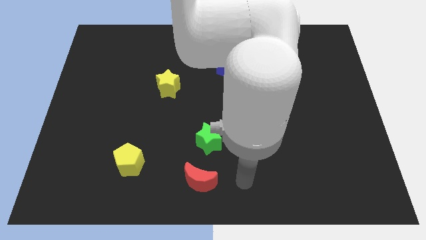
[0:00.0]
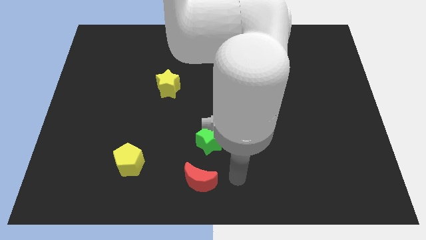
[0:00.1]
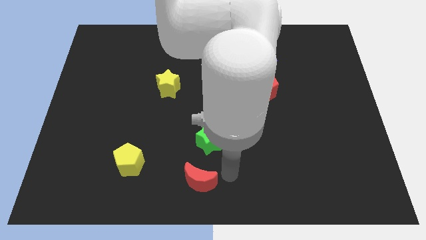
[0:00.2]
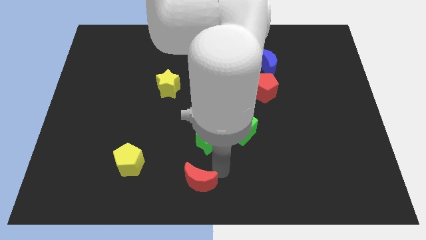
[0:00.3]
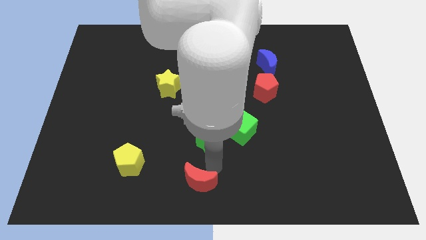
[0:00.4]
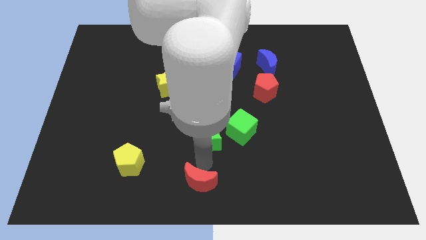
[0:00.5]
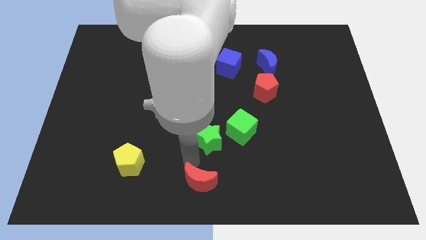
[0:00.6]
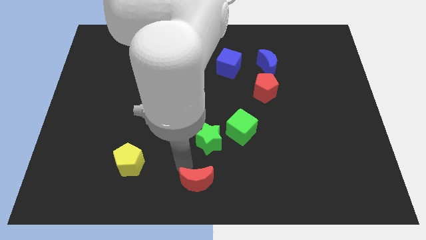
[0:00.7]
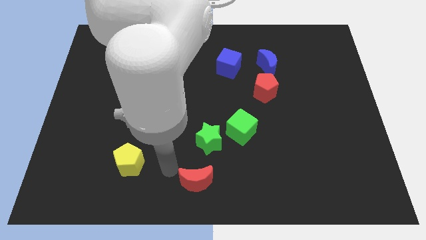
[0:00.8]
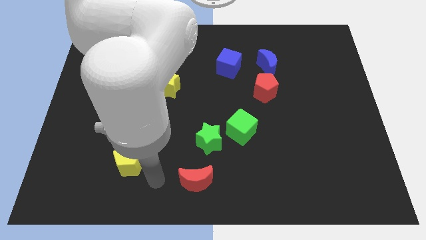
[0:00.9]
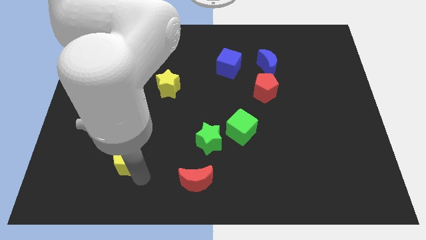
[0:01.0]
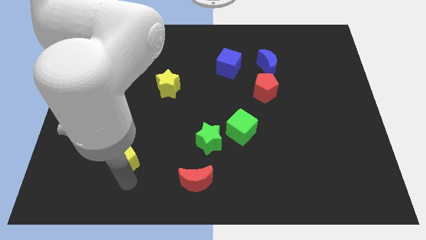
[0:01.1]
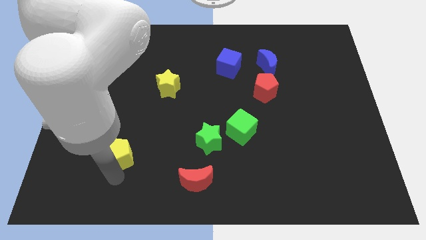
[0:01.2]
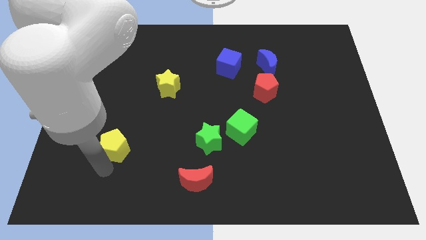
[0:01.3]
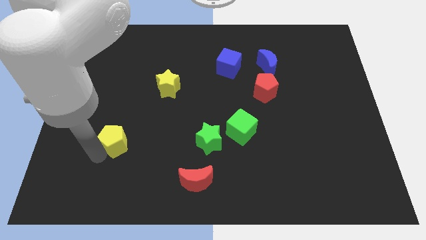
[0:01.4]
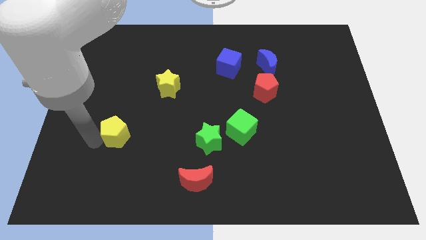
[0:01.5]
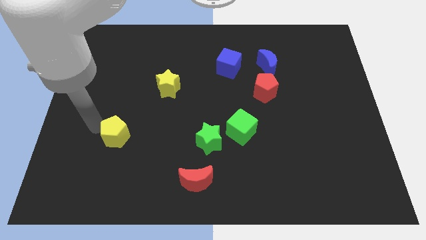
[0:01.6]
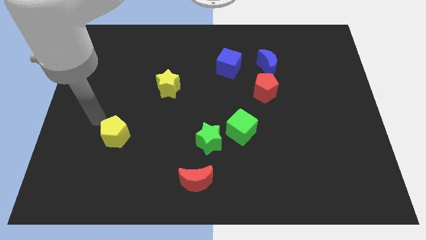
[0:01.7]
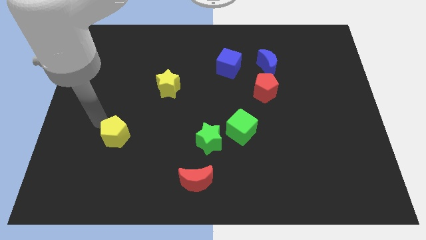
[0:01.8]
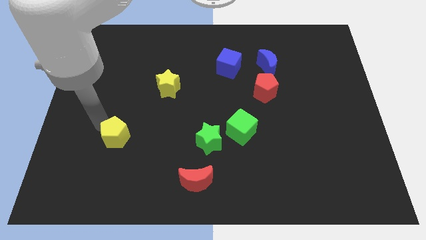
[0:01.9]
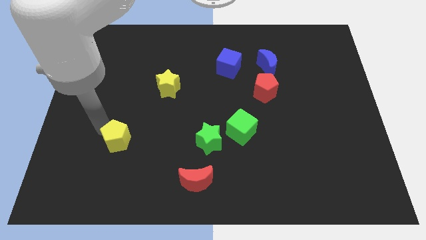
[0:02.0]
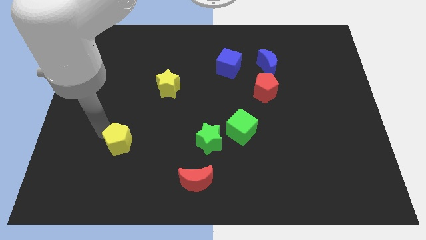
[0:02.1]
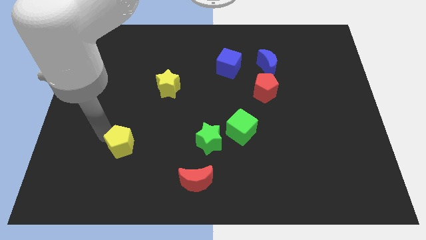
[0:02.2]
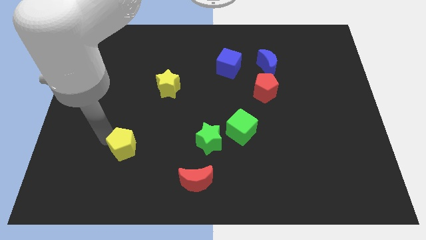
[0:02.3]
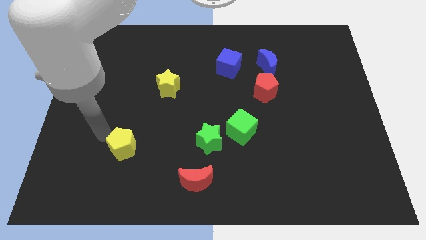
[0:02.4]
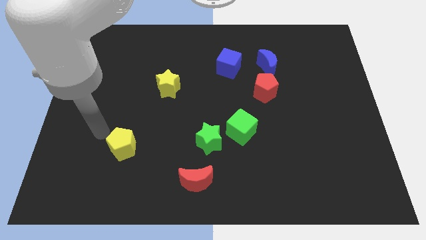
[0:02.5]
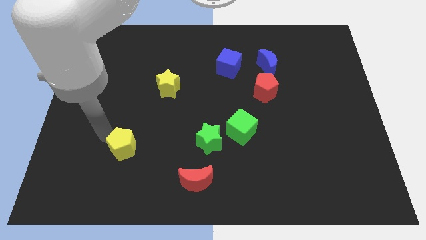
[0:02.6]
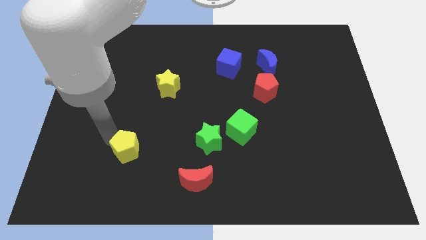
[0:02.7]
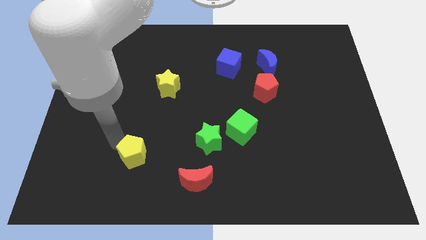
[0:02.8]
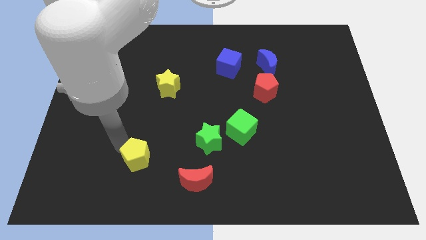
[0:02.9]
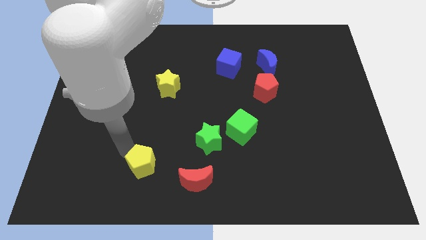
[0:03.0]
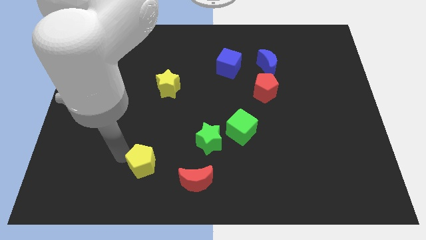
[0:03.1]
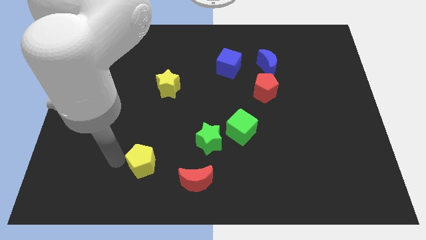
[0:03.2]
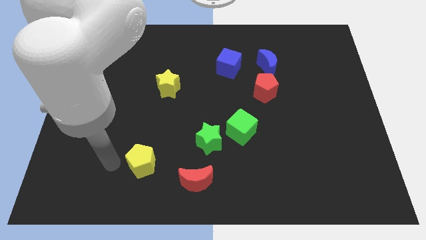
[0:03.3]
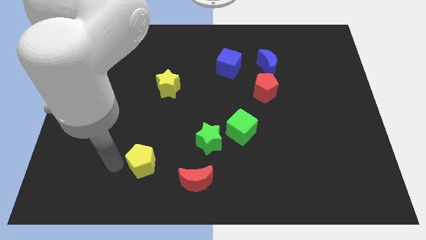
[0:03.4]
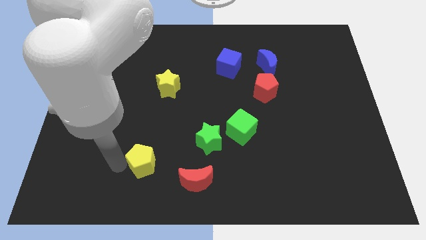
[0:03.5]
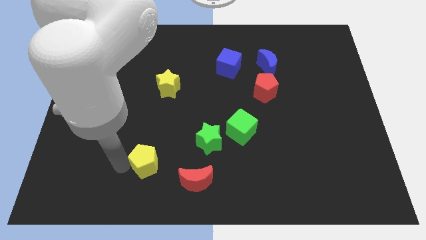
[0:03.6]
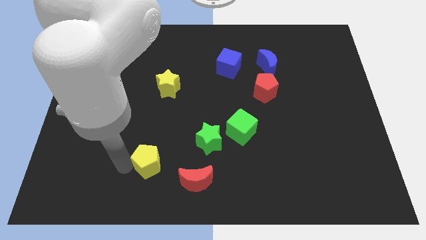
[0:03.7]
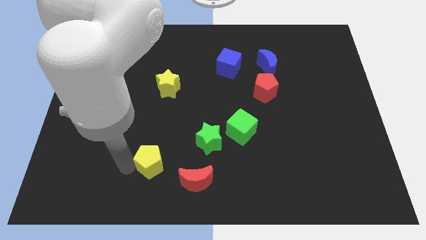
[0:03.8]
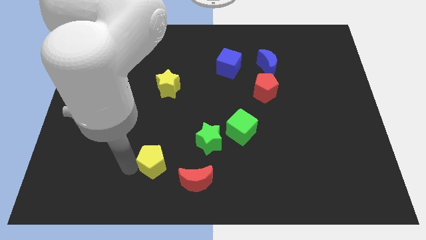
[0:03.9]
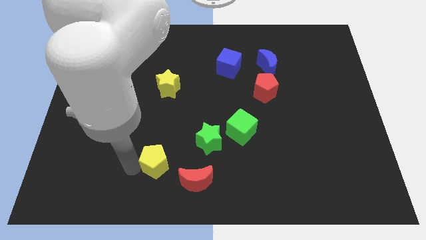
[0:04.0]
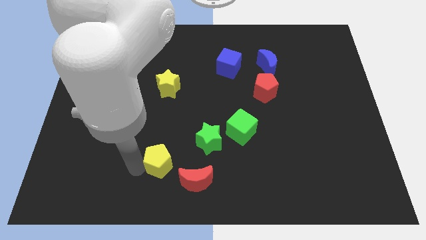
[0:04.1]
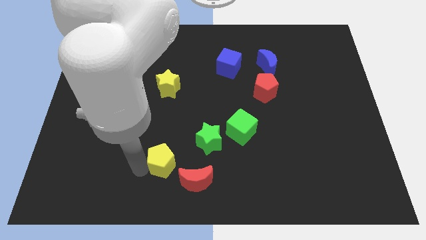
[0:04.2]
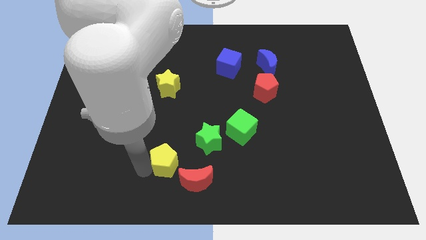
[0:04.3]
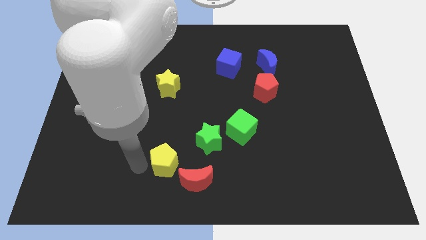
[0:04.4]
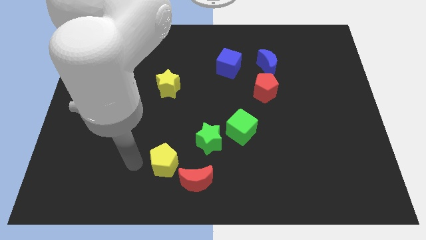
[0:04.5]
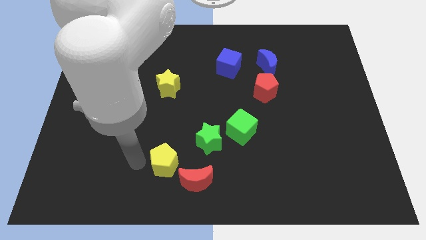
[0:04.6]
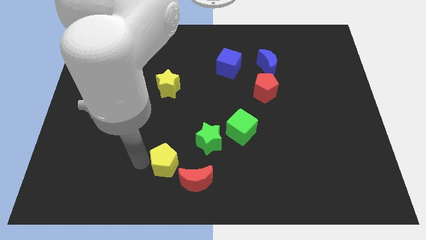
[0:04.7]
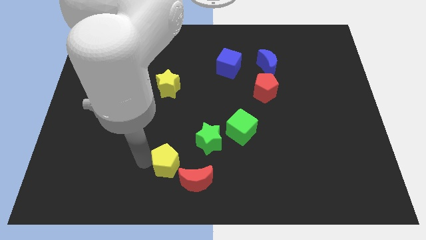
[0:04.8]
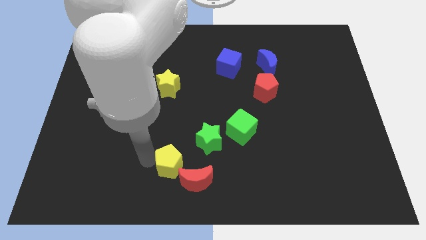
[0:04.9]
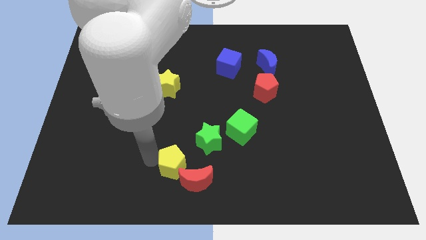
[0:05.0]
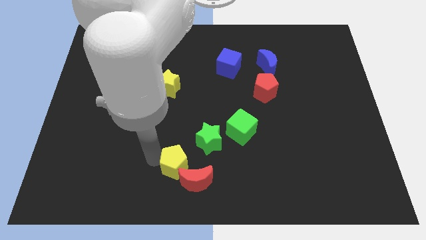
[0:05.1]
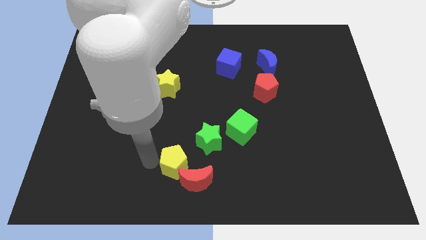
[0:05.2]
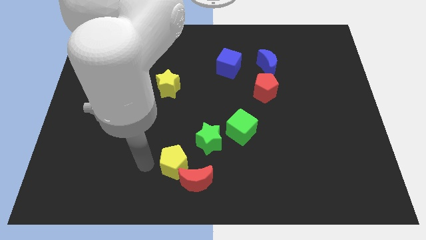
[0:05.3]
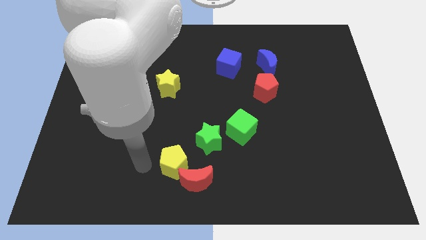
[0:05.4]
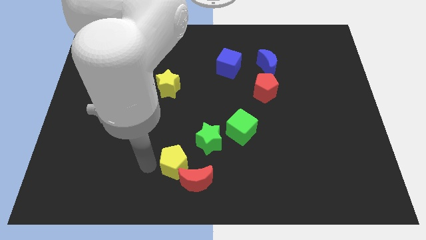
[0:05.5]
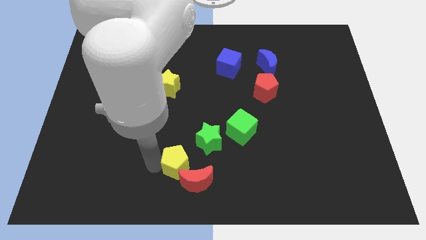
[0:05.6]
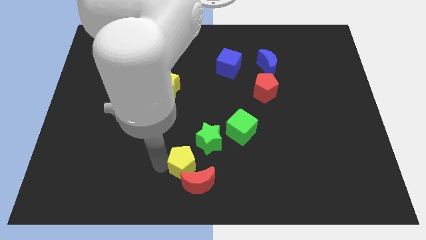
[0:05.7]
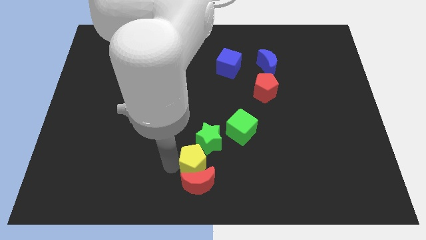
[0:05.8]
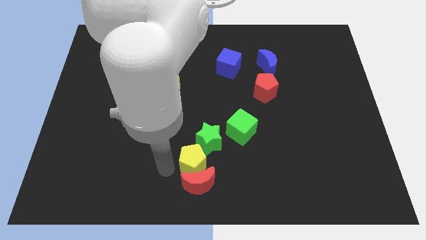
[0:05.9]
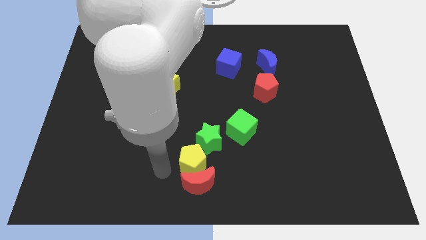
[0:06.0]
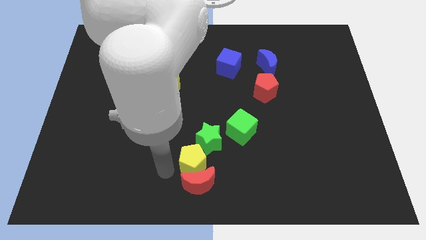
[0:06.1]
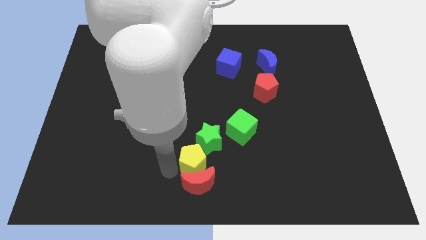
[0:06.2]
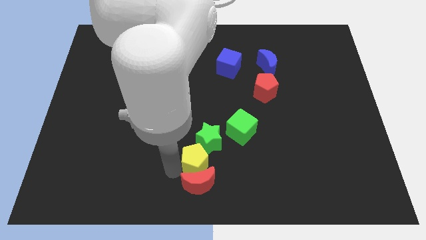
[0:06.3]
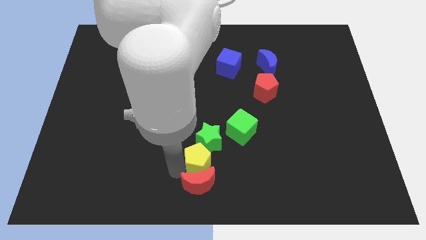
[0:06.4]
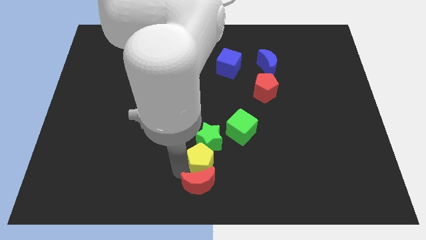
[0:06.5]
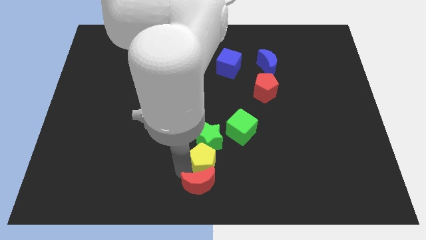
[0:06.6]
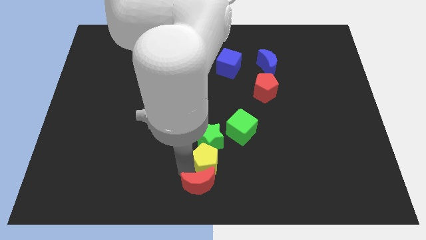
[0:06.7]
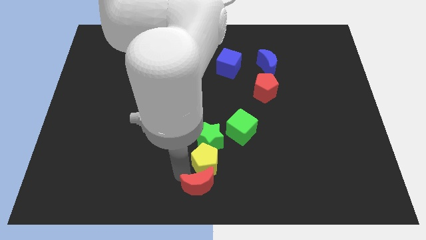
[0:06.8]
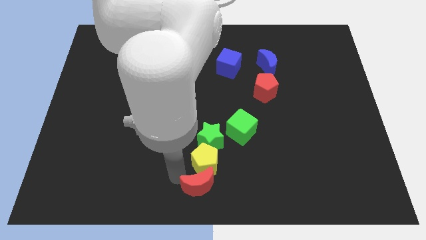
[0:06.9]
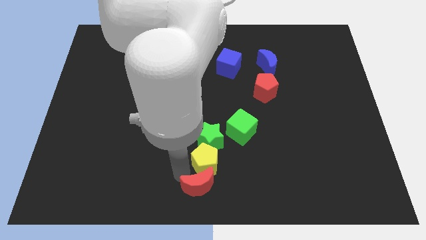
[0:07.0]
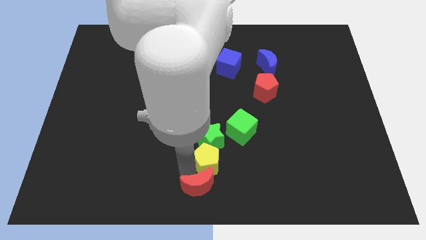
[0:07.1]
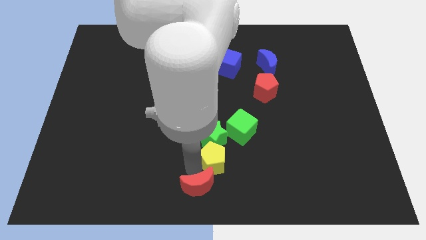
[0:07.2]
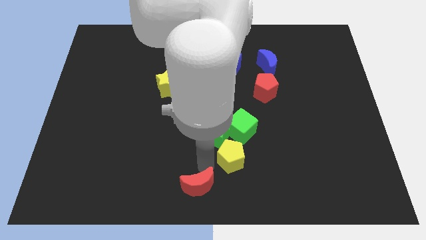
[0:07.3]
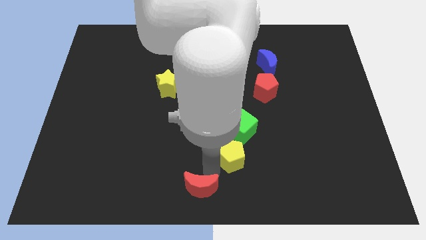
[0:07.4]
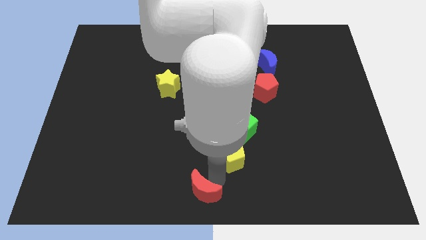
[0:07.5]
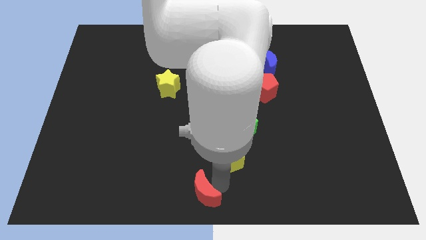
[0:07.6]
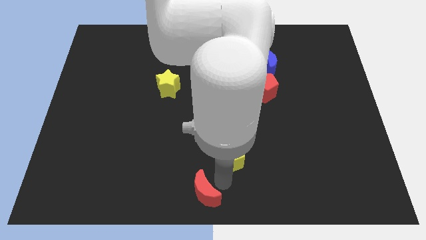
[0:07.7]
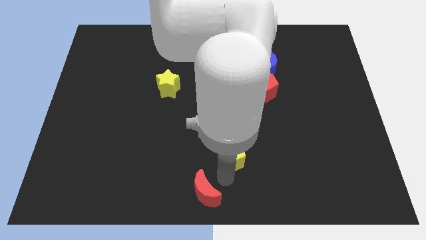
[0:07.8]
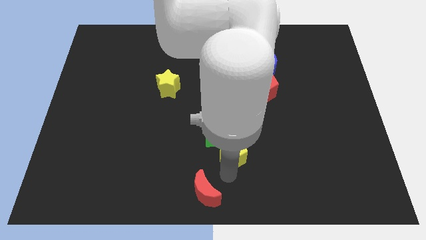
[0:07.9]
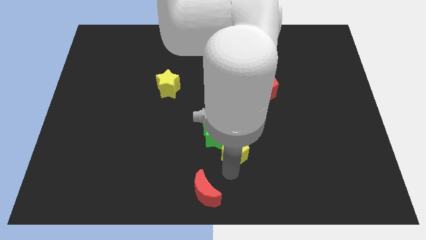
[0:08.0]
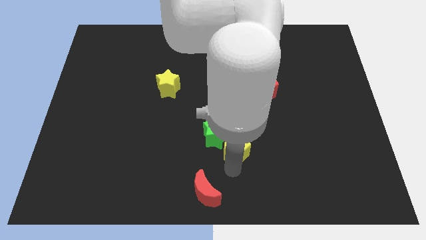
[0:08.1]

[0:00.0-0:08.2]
put the yellow pentagon close to the green cube
